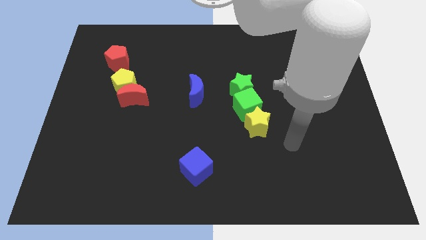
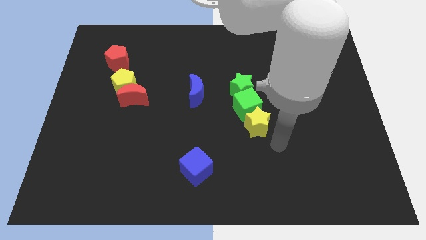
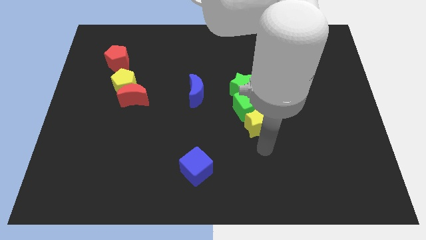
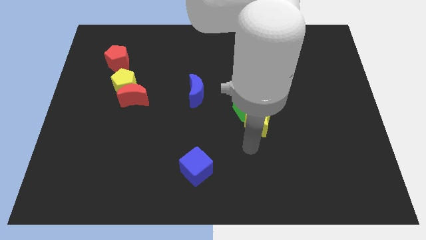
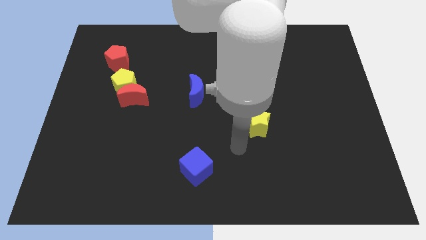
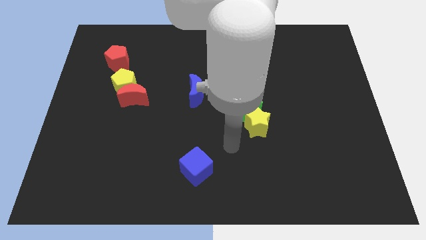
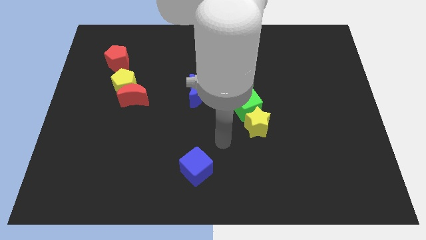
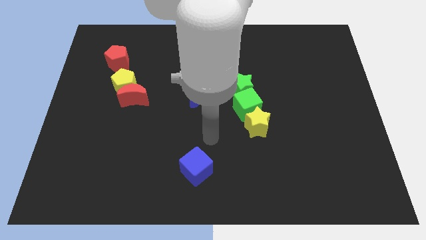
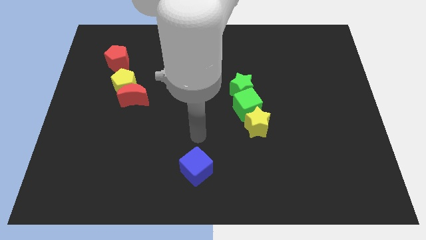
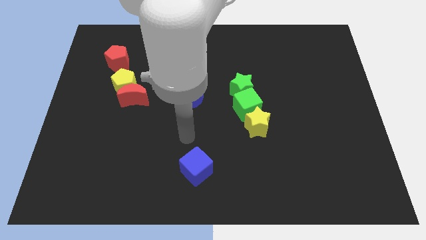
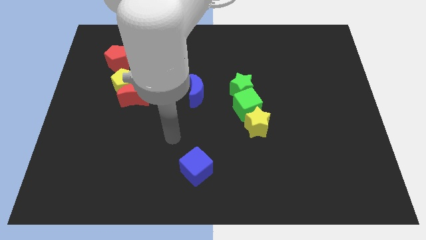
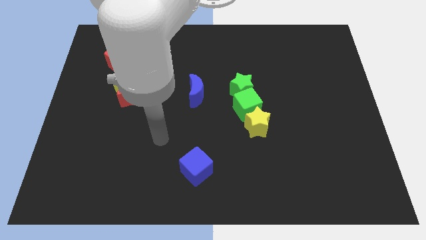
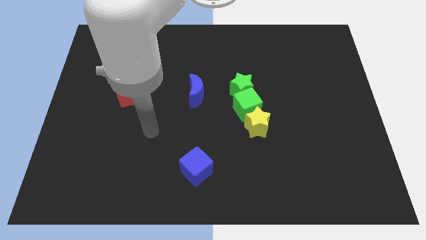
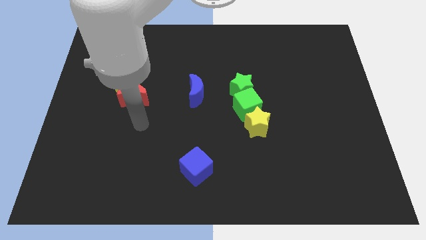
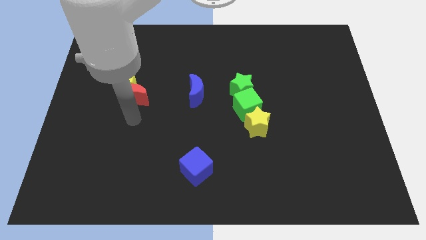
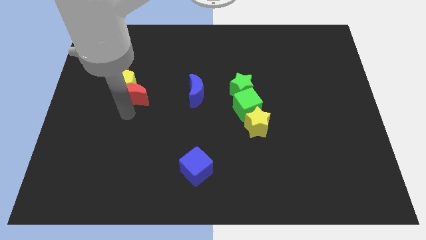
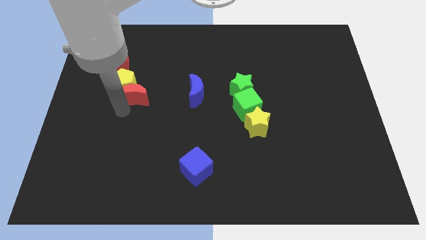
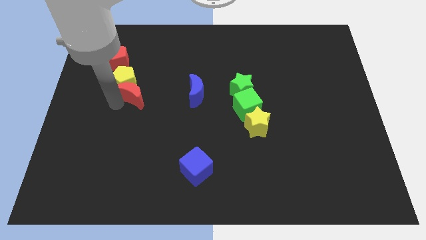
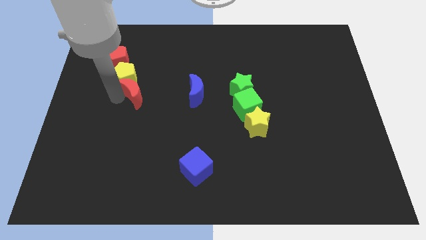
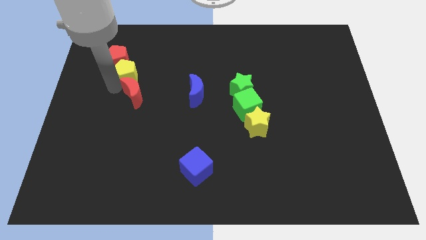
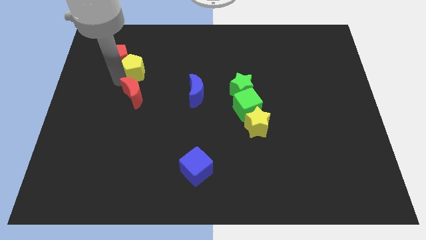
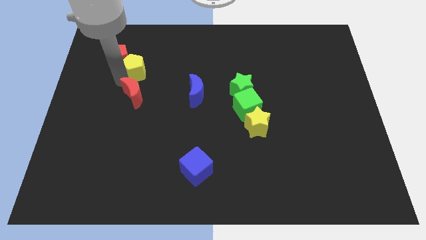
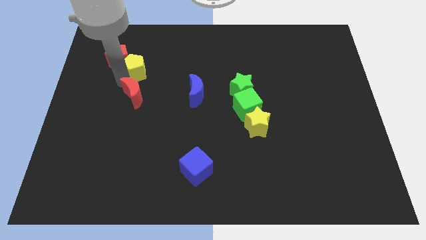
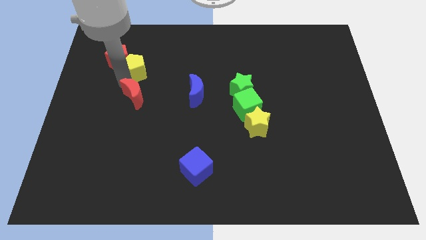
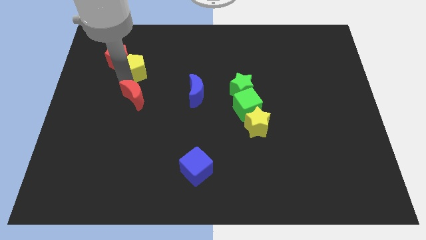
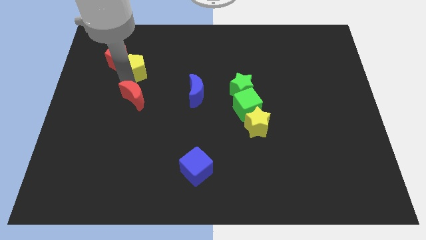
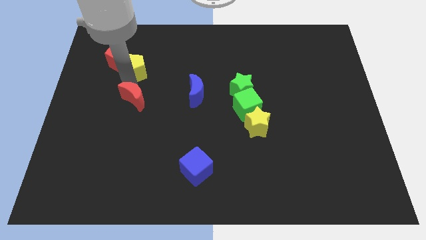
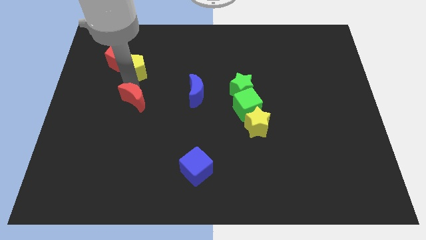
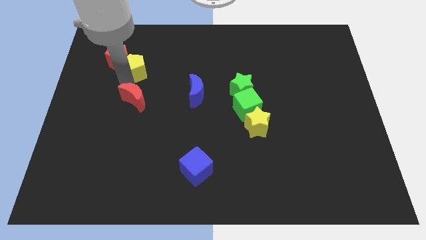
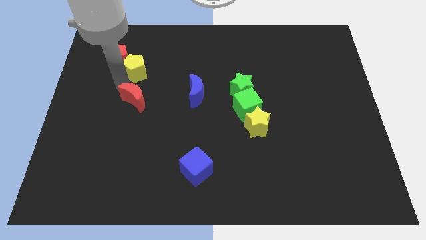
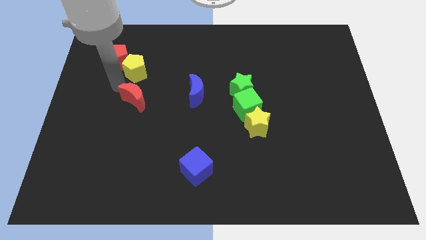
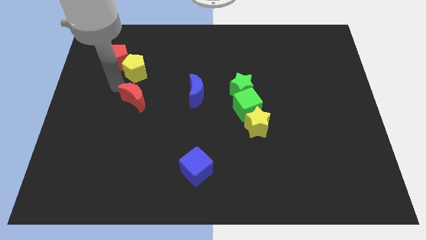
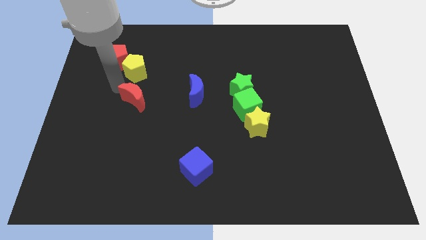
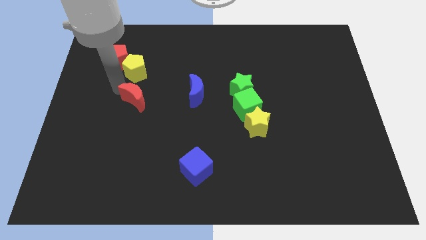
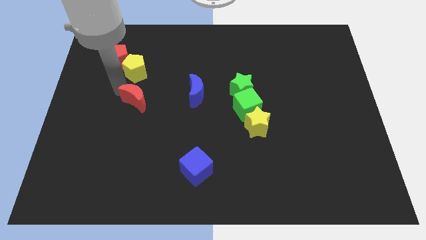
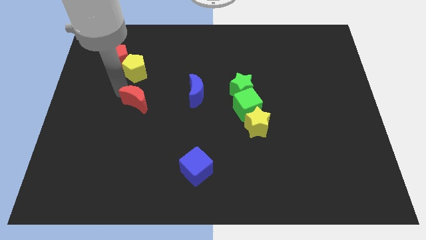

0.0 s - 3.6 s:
separate the red moon from the yellow pentagon

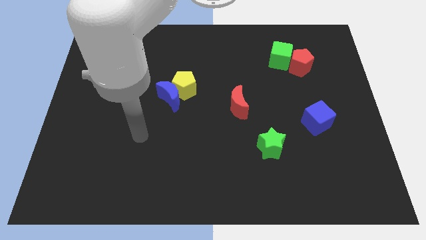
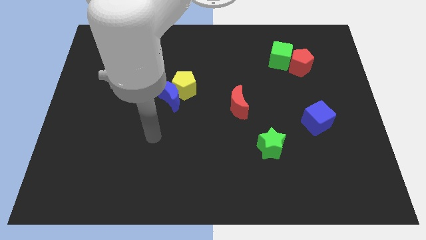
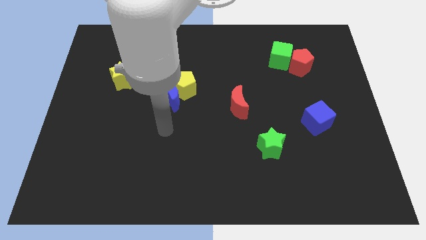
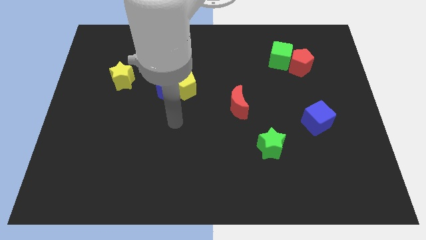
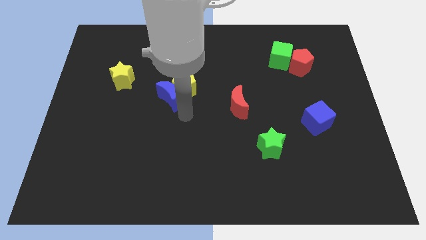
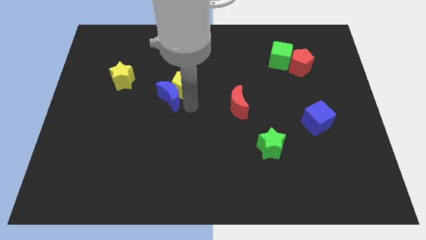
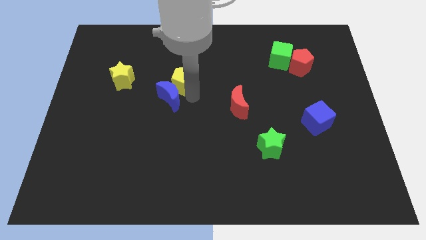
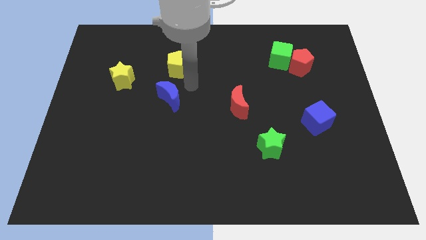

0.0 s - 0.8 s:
pull the blue moon apart from the yellow pentagon

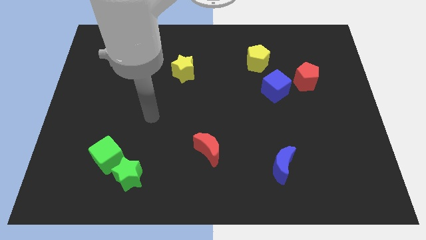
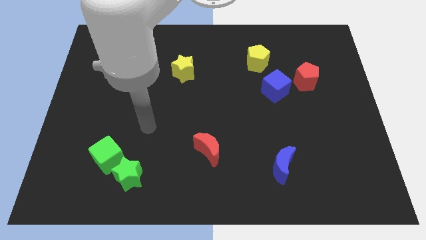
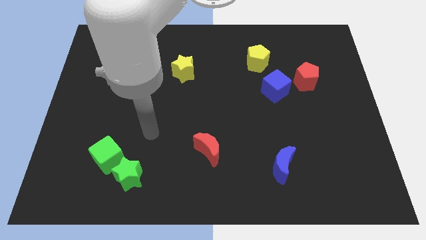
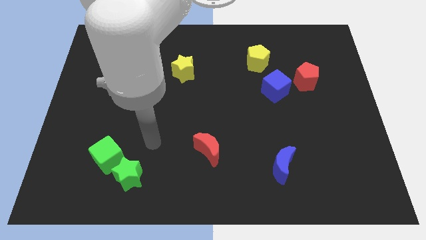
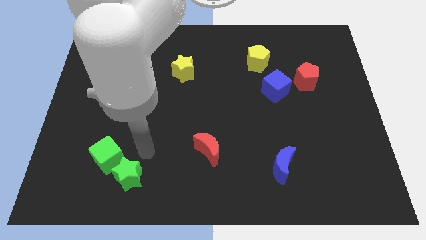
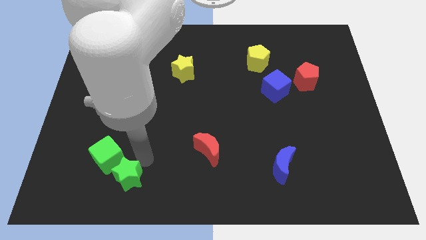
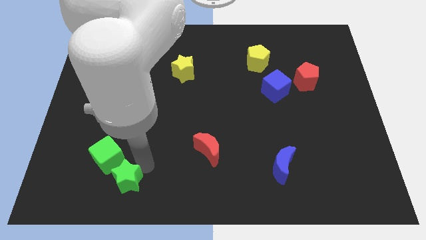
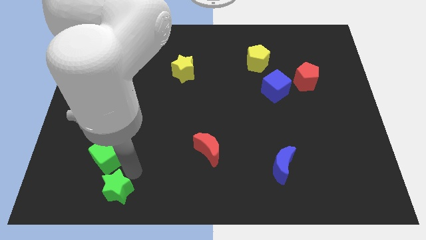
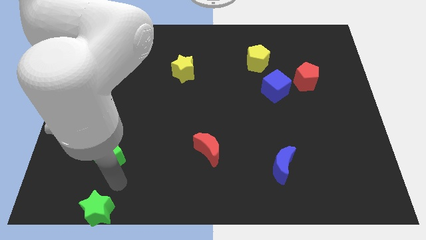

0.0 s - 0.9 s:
move the green cube away from the green star

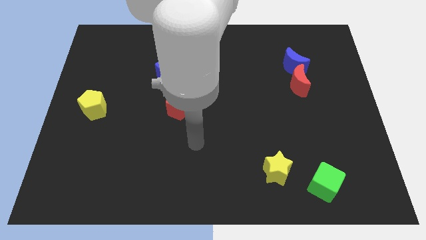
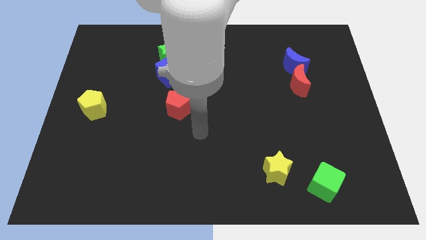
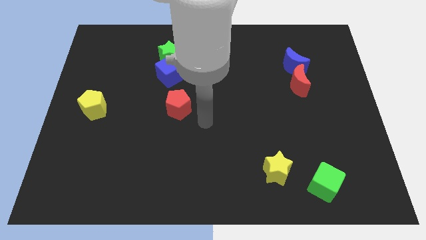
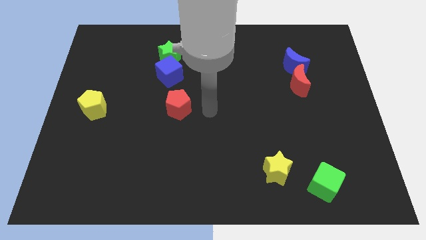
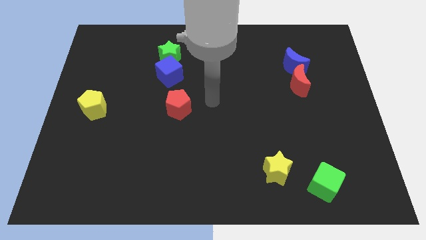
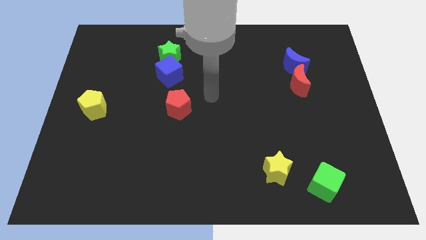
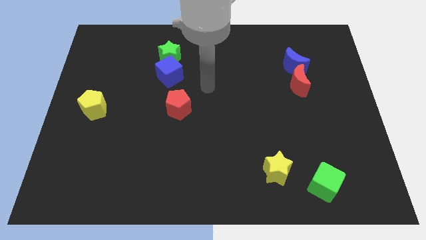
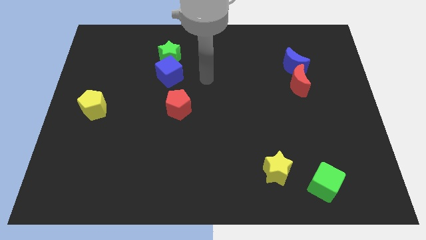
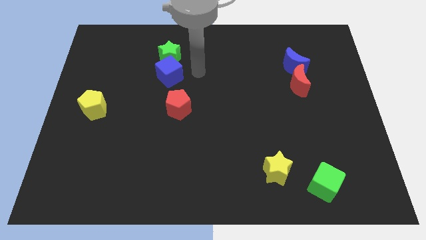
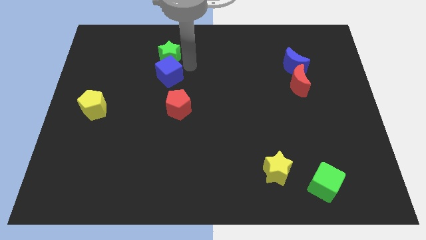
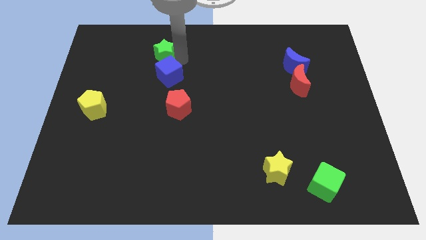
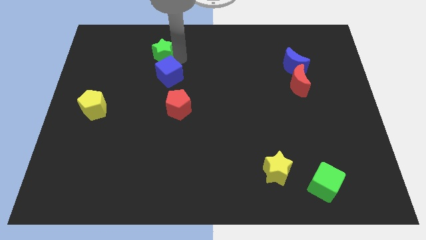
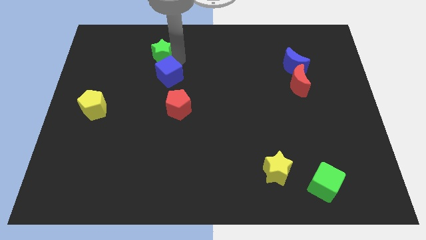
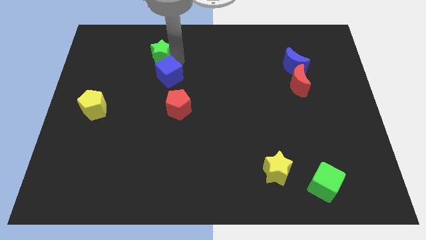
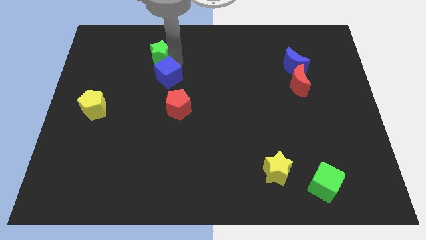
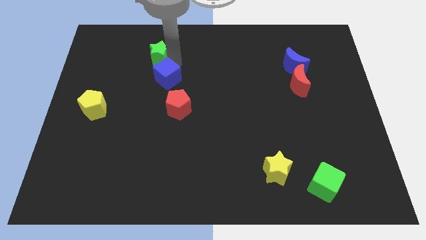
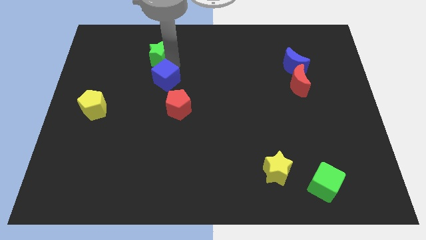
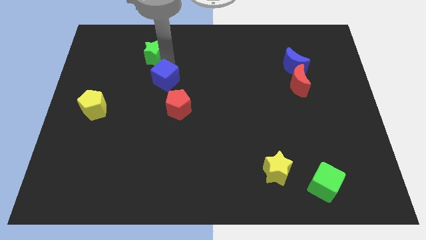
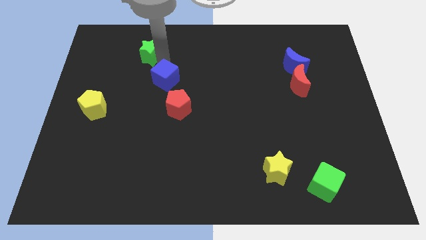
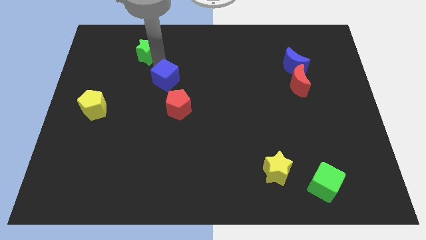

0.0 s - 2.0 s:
separate the blue cube from the green star

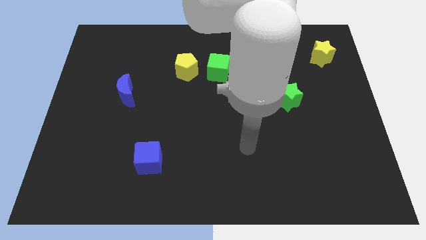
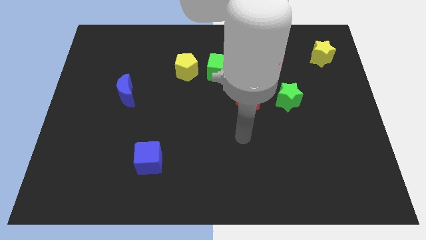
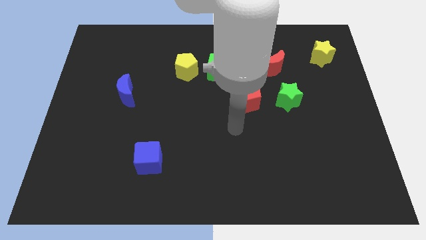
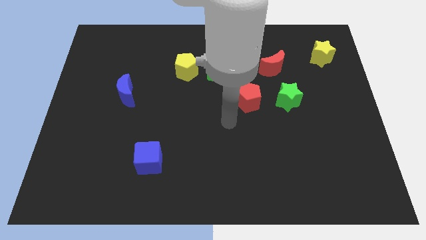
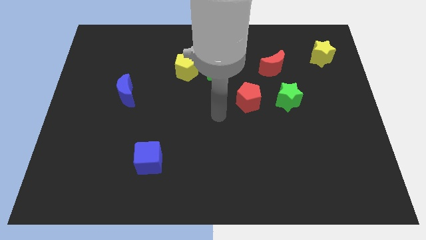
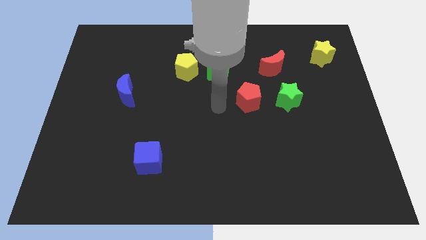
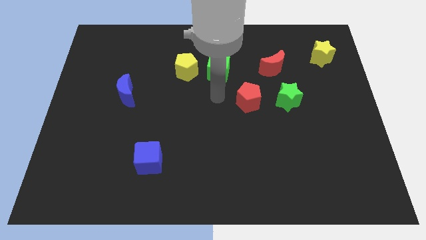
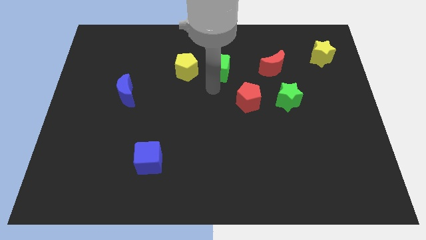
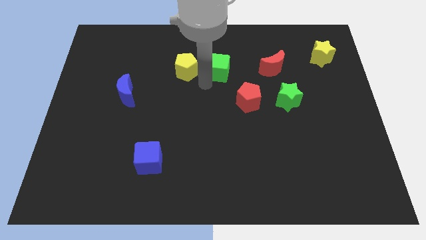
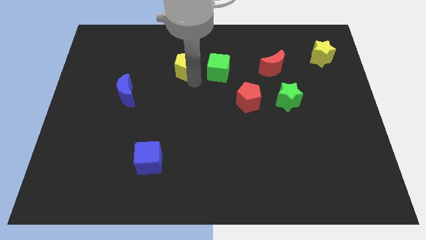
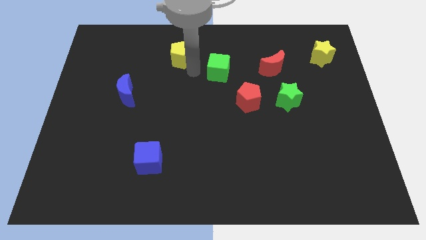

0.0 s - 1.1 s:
separate the green cube from the yellow pentagon

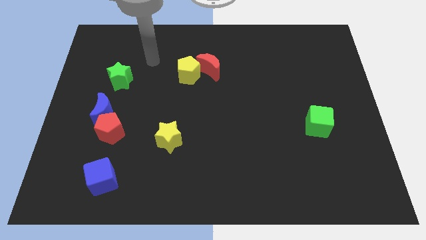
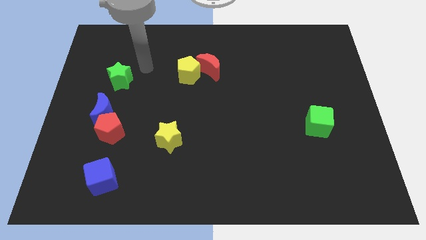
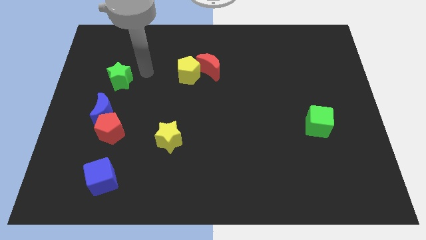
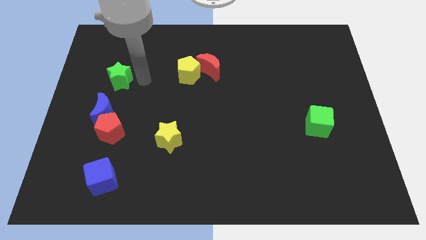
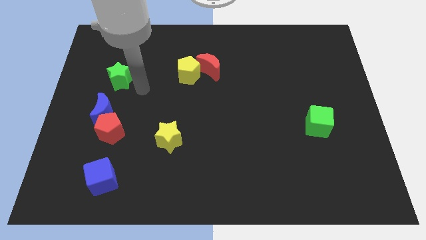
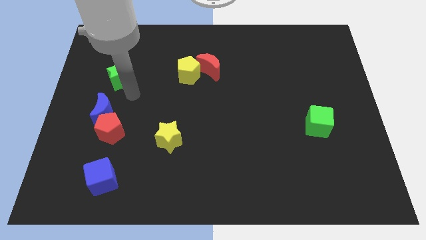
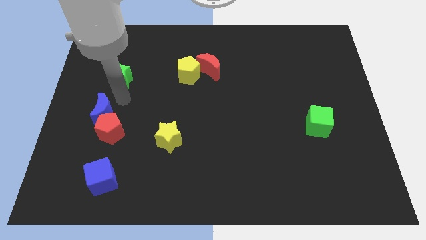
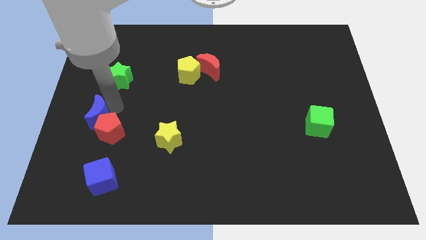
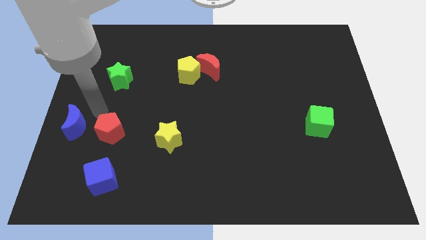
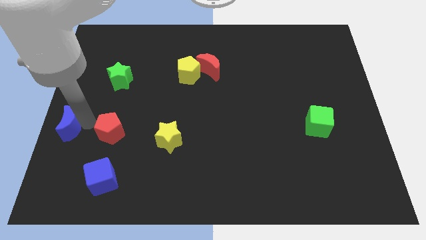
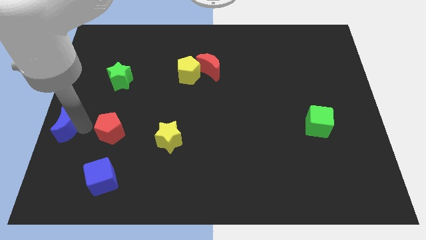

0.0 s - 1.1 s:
pull the red pentagon apart from the blue moon
